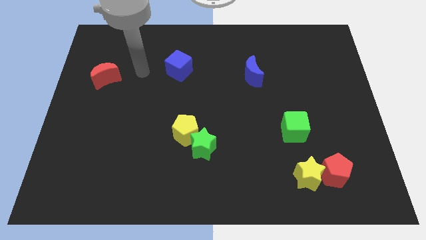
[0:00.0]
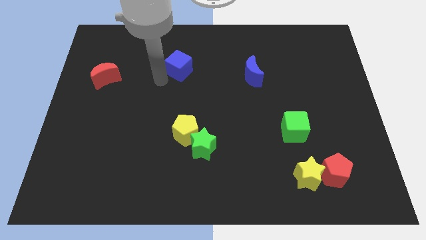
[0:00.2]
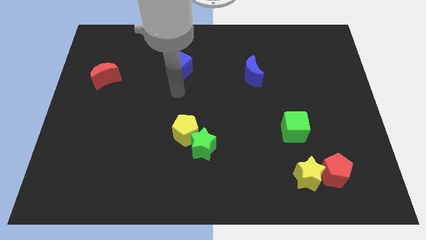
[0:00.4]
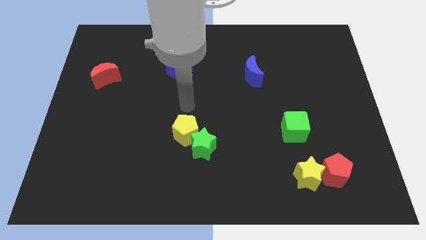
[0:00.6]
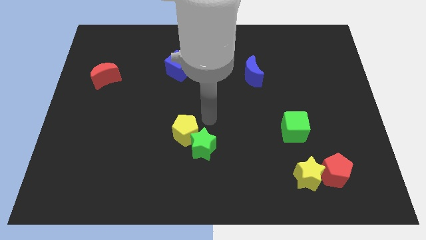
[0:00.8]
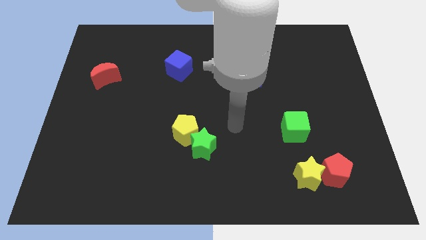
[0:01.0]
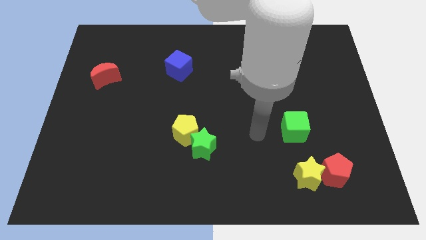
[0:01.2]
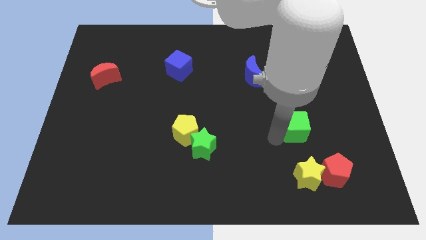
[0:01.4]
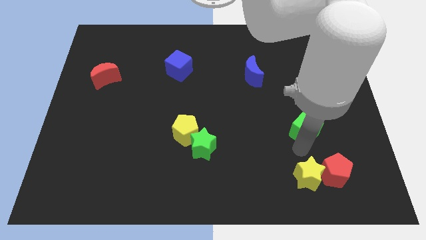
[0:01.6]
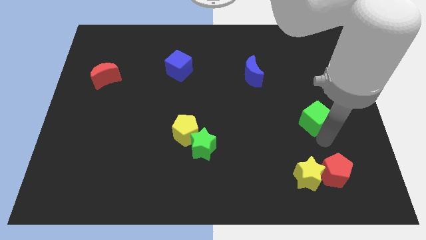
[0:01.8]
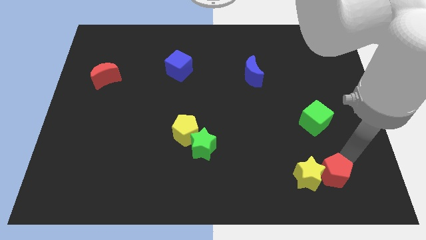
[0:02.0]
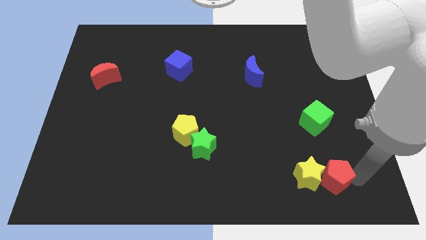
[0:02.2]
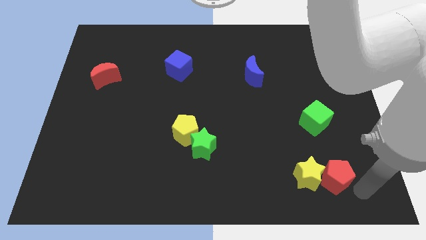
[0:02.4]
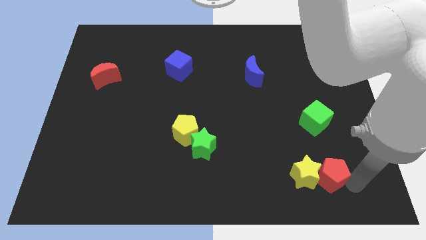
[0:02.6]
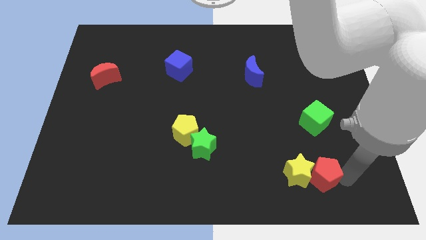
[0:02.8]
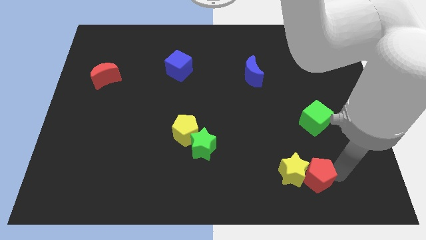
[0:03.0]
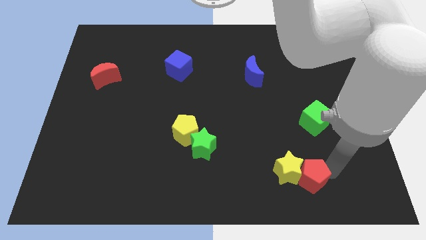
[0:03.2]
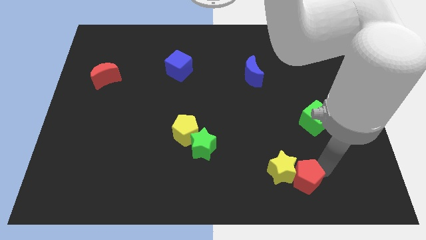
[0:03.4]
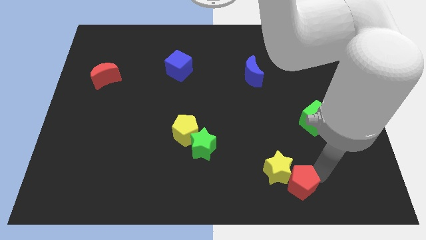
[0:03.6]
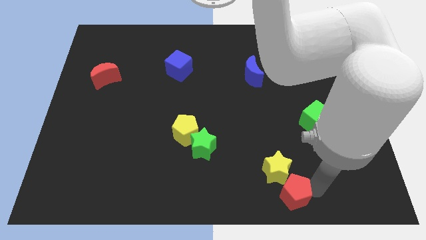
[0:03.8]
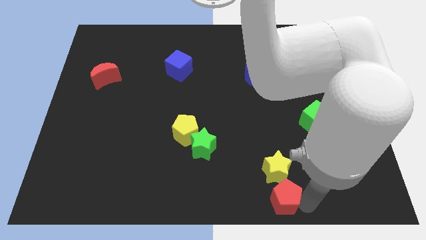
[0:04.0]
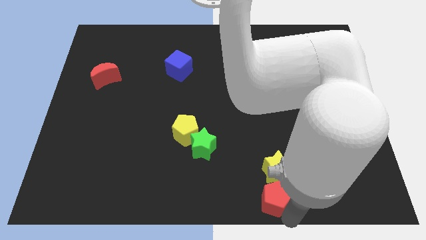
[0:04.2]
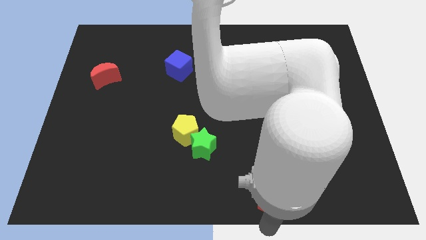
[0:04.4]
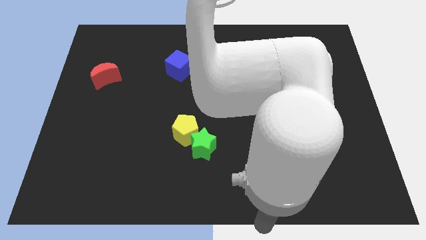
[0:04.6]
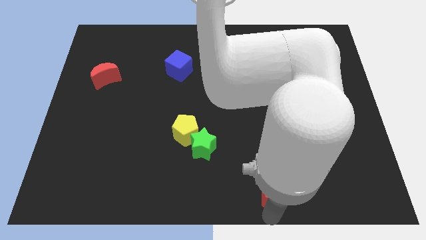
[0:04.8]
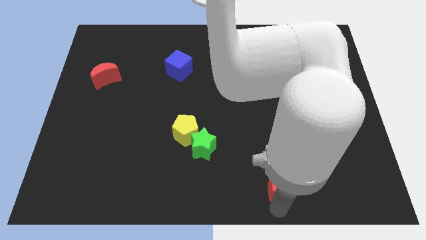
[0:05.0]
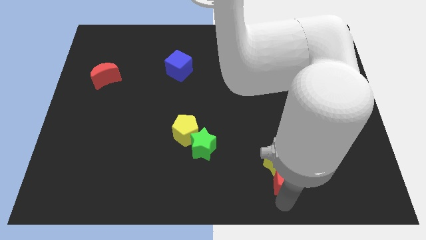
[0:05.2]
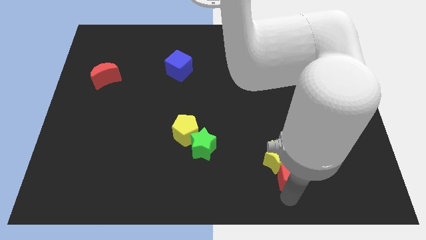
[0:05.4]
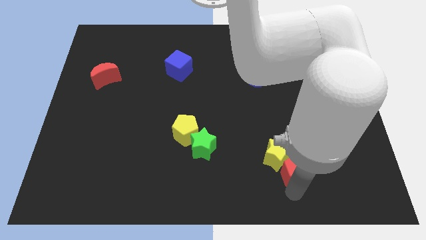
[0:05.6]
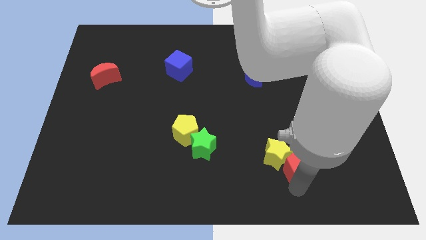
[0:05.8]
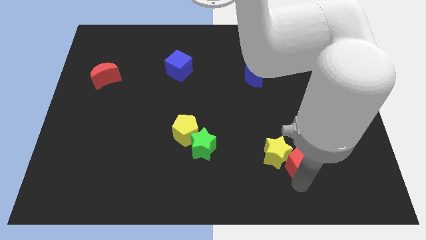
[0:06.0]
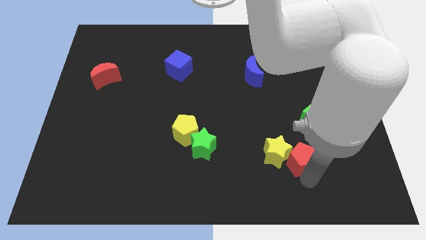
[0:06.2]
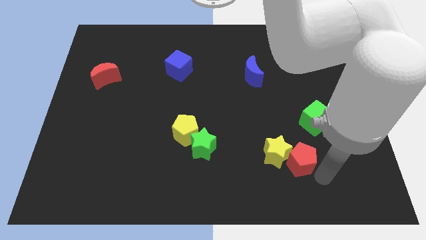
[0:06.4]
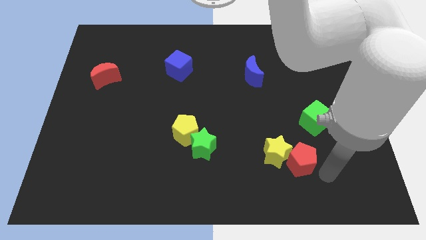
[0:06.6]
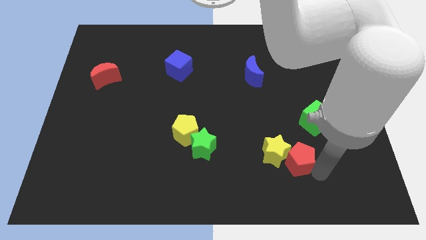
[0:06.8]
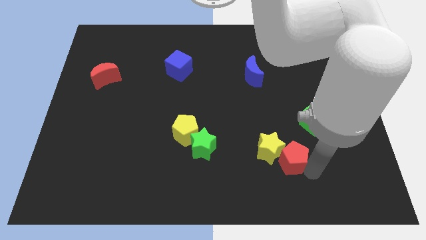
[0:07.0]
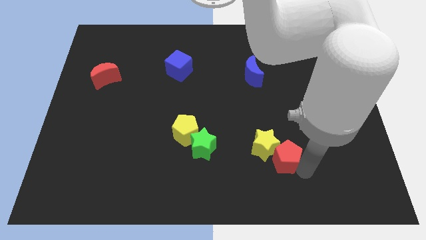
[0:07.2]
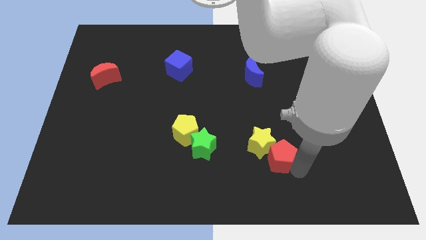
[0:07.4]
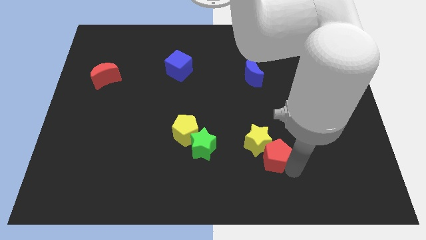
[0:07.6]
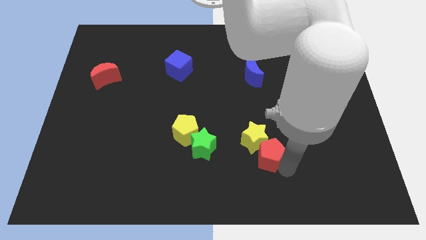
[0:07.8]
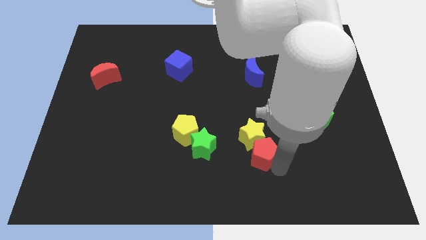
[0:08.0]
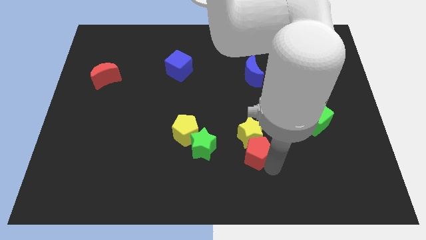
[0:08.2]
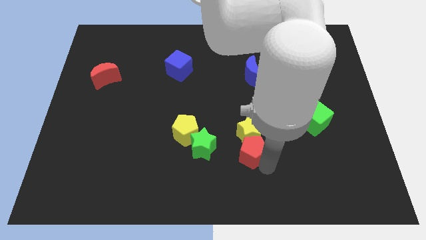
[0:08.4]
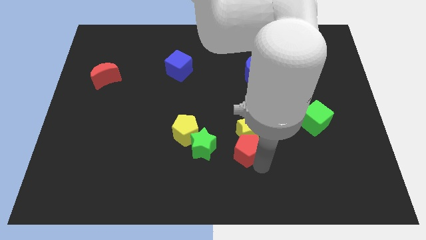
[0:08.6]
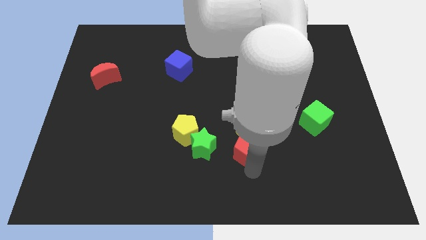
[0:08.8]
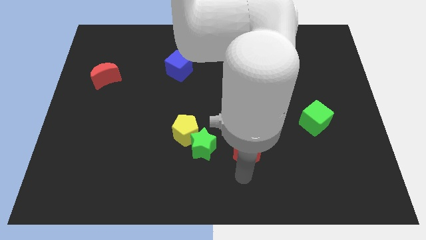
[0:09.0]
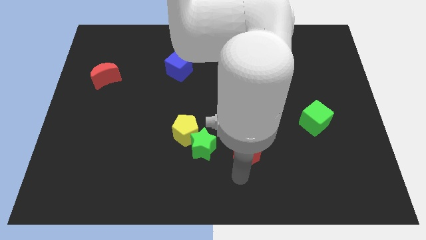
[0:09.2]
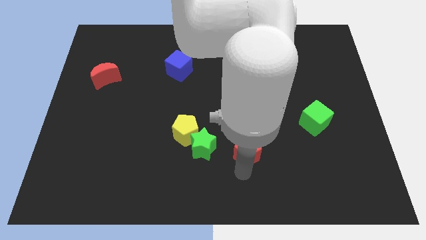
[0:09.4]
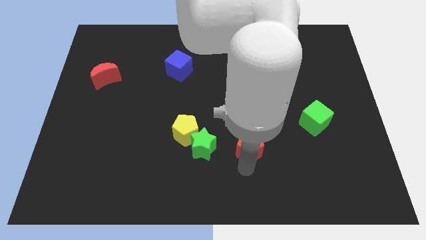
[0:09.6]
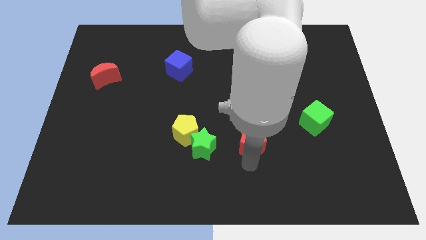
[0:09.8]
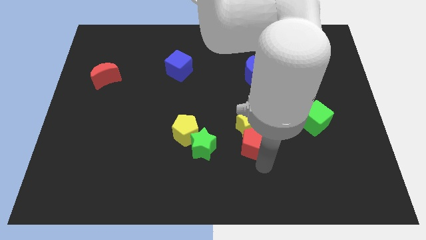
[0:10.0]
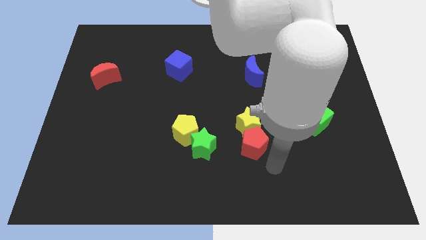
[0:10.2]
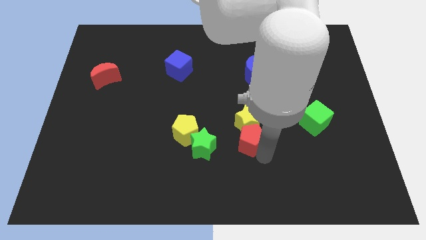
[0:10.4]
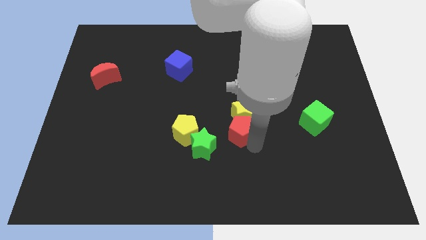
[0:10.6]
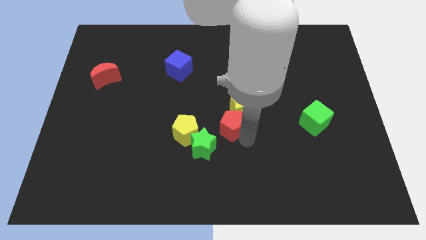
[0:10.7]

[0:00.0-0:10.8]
move the red pentagon up and to the left

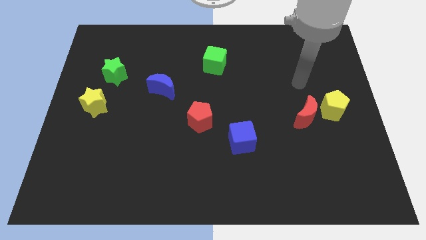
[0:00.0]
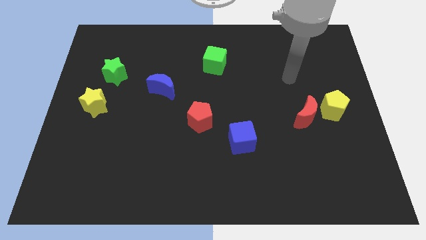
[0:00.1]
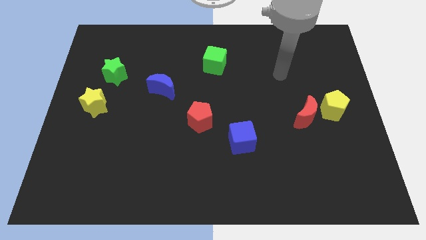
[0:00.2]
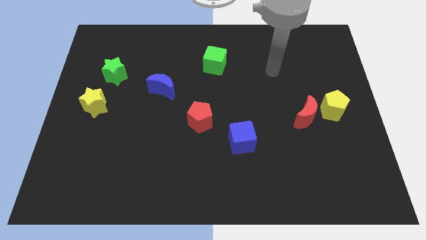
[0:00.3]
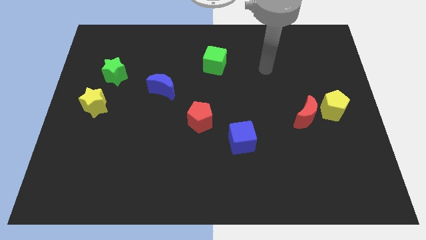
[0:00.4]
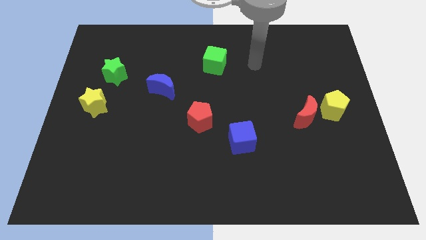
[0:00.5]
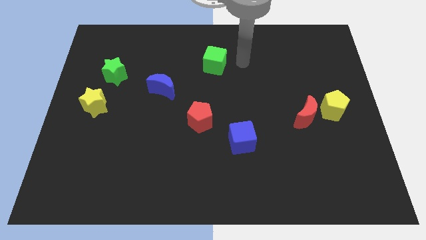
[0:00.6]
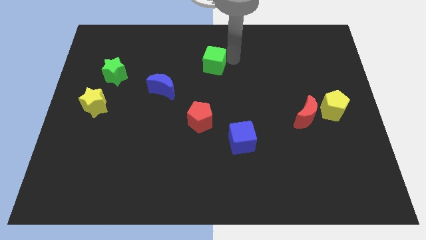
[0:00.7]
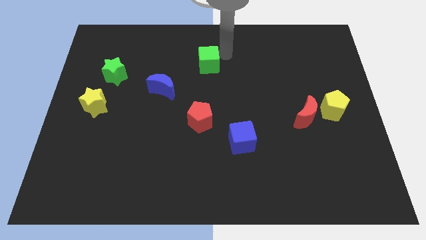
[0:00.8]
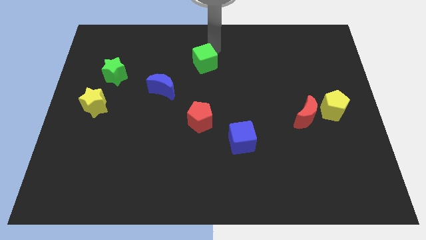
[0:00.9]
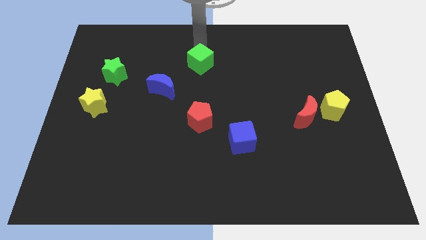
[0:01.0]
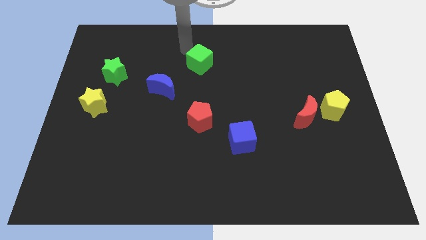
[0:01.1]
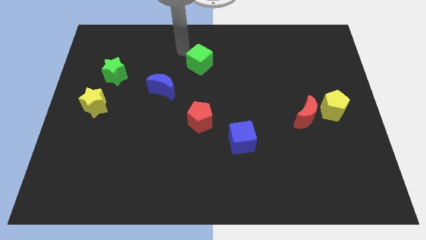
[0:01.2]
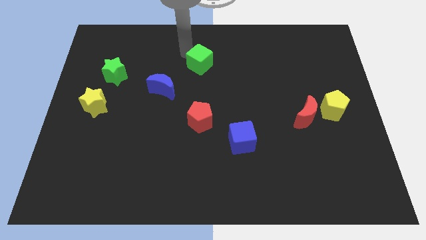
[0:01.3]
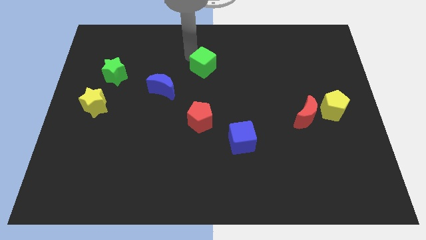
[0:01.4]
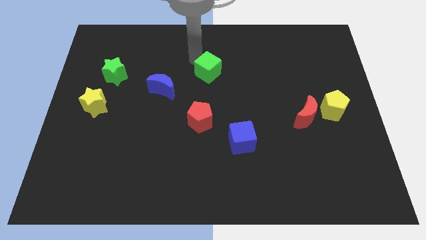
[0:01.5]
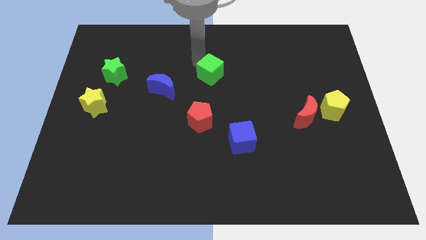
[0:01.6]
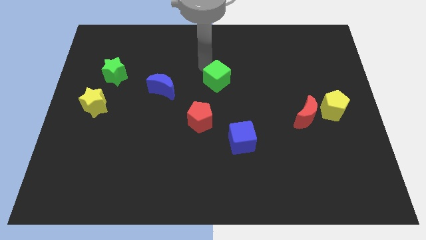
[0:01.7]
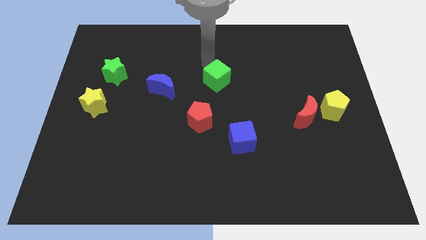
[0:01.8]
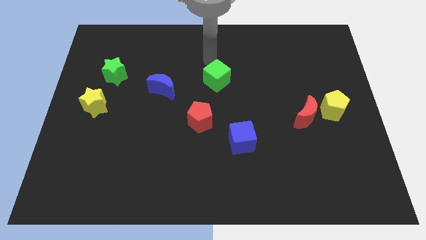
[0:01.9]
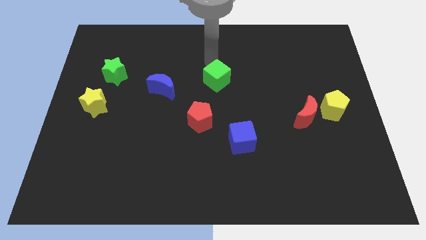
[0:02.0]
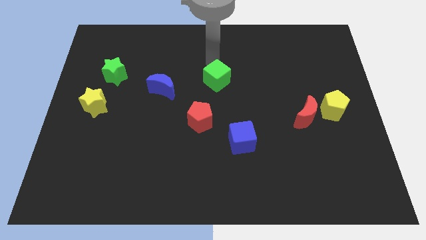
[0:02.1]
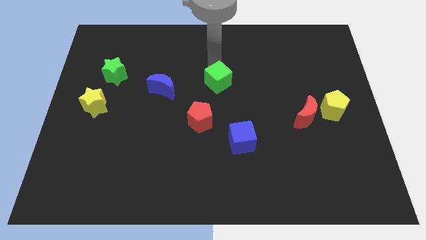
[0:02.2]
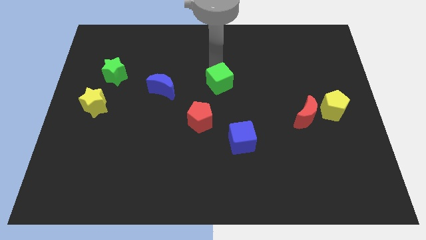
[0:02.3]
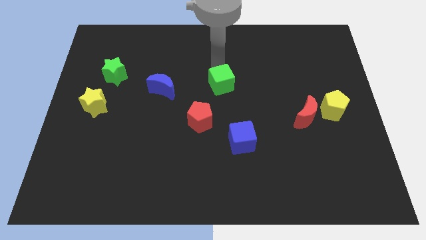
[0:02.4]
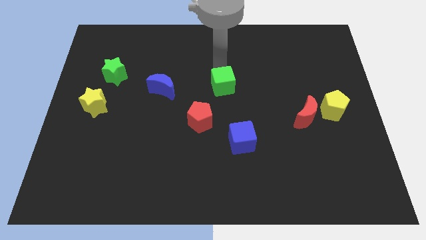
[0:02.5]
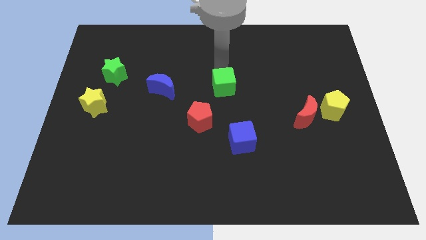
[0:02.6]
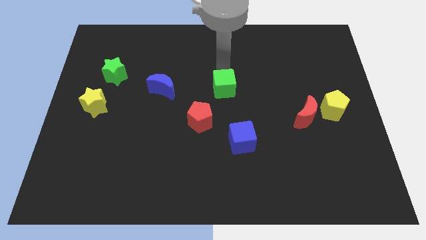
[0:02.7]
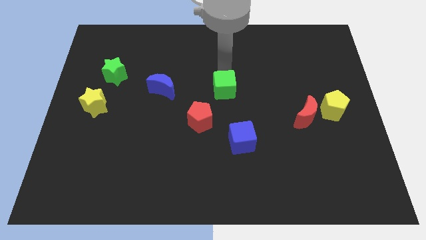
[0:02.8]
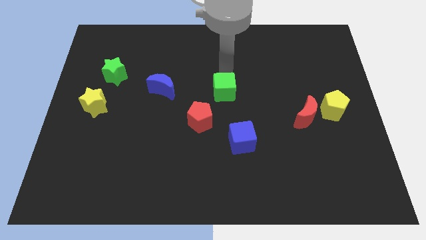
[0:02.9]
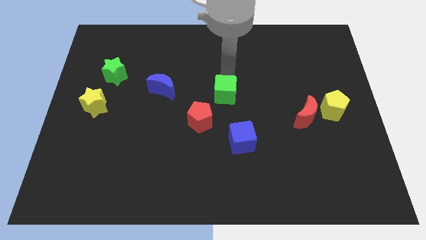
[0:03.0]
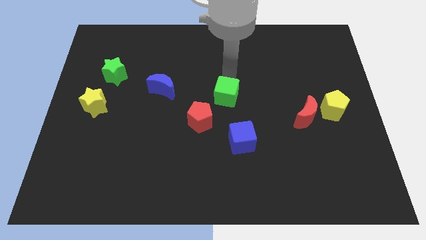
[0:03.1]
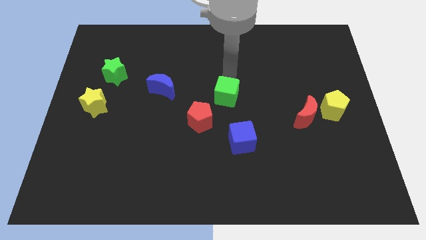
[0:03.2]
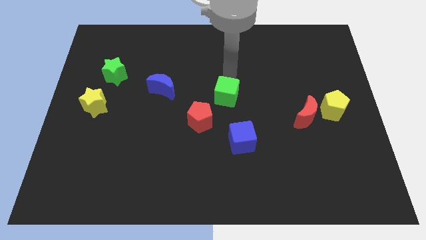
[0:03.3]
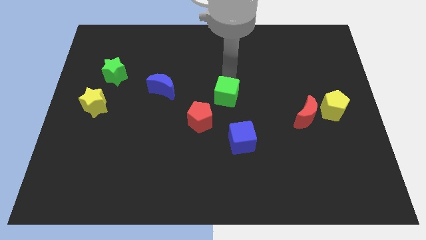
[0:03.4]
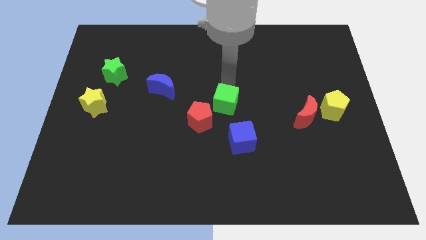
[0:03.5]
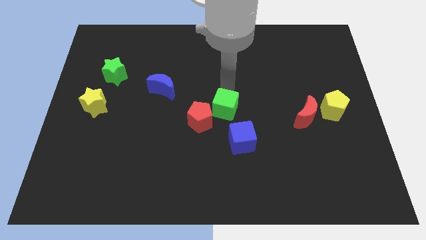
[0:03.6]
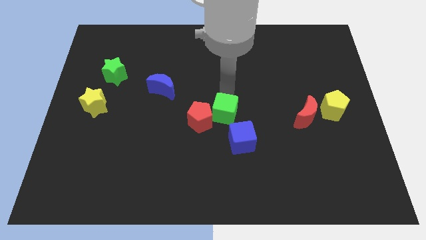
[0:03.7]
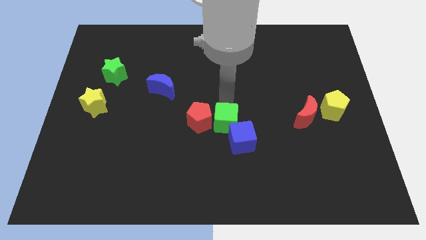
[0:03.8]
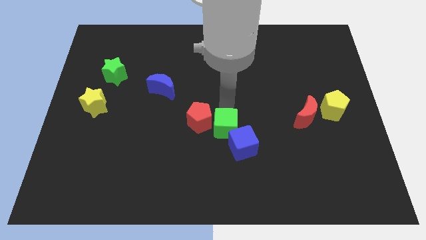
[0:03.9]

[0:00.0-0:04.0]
move the green cube downwards
